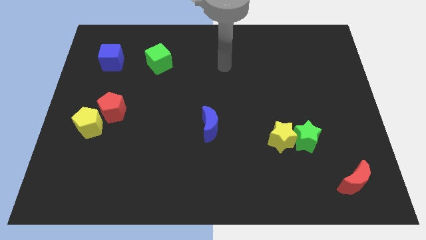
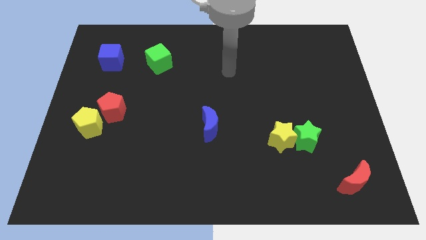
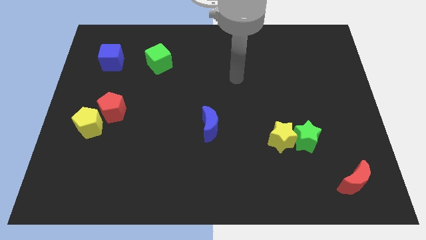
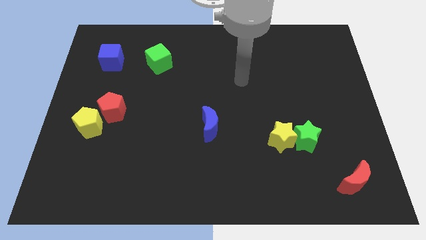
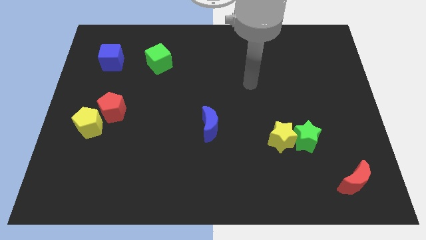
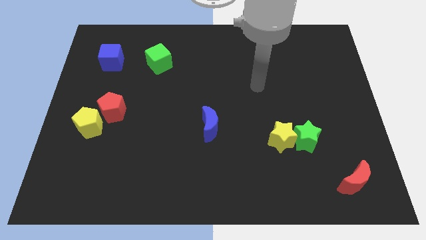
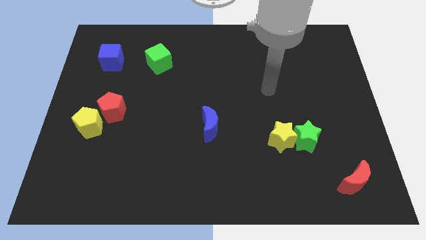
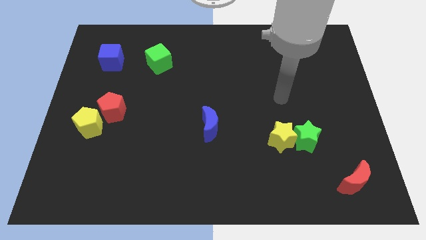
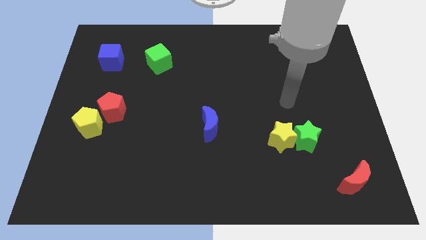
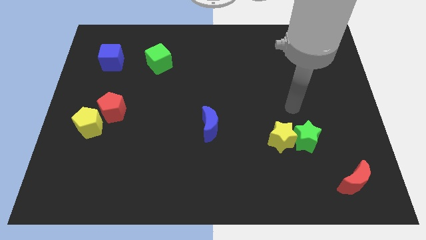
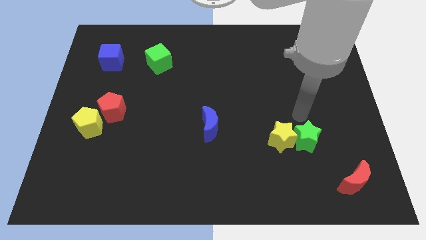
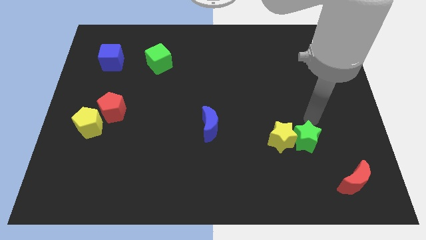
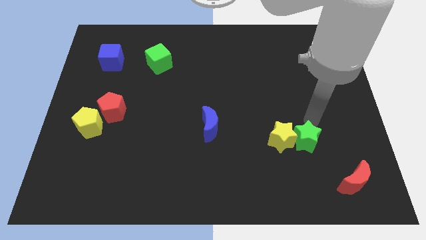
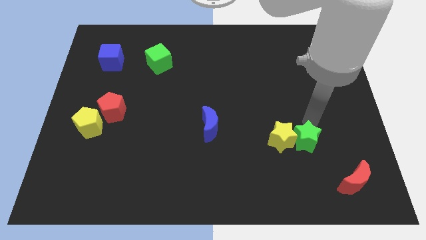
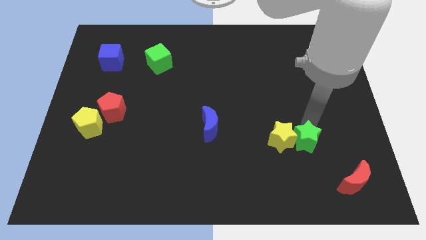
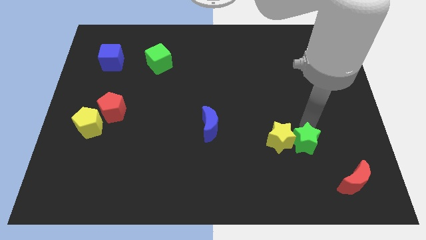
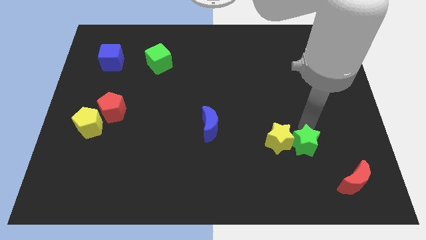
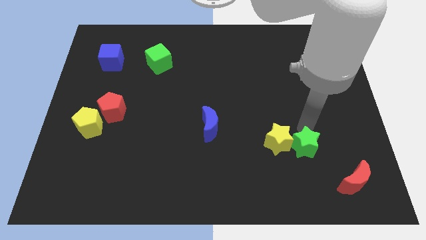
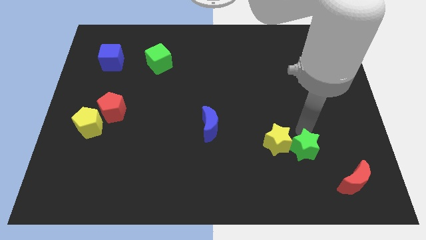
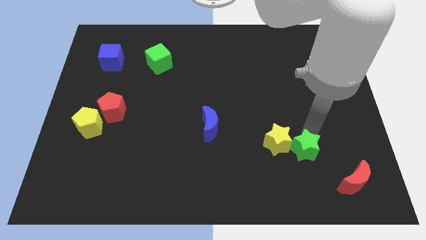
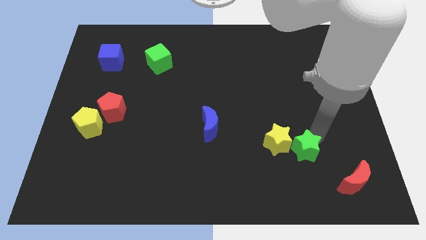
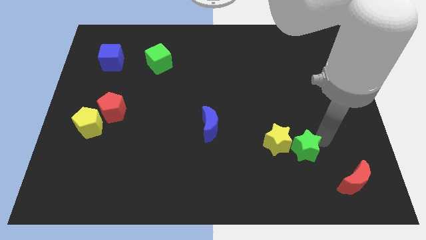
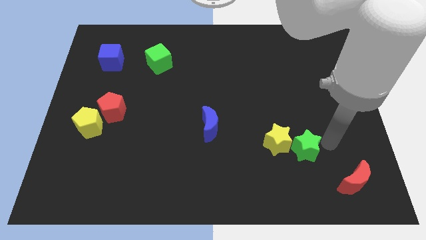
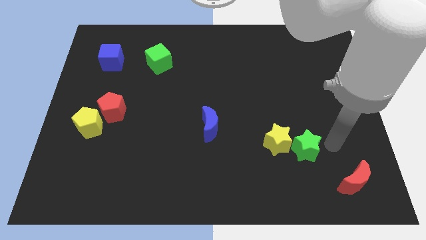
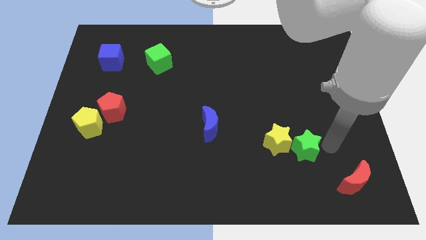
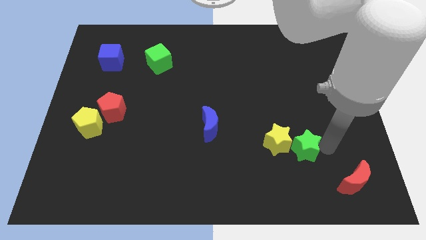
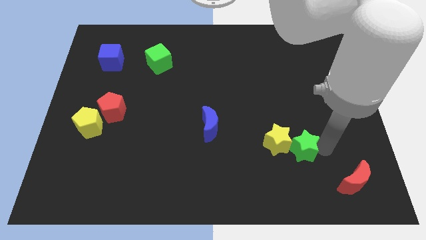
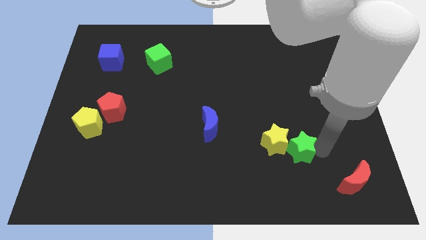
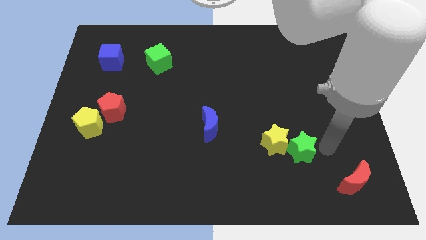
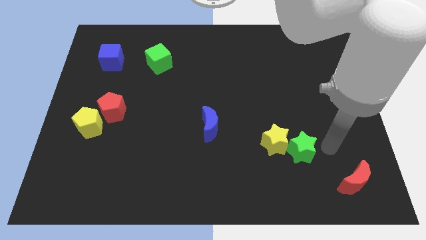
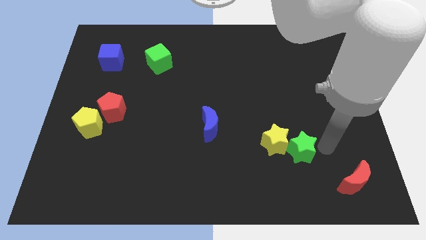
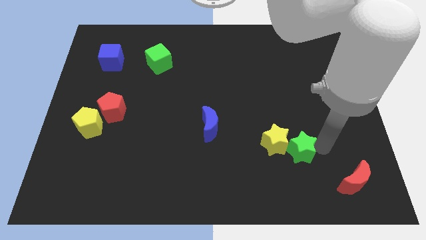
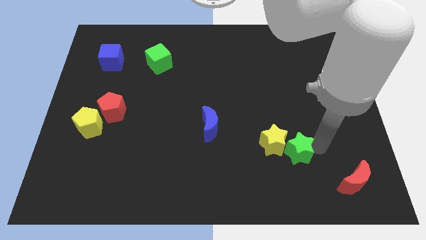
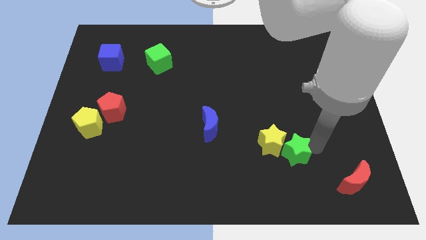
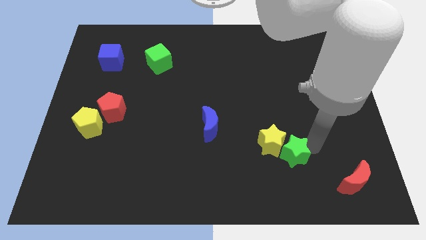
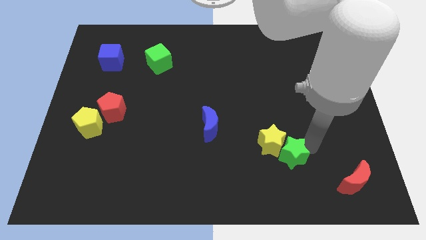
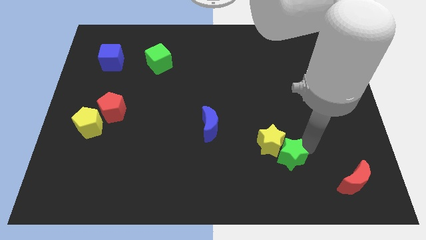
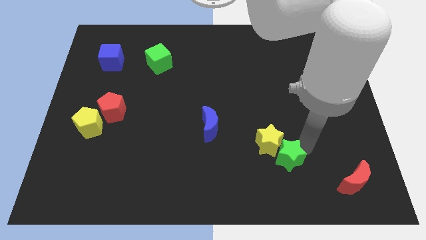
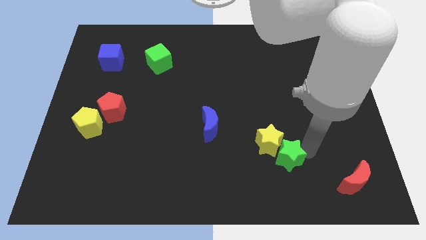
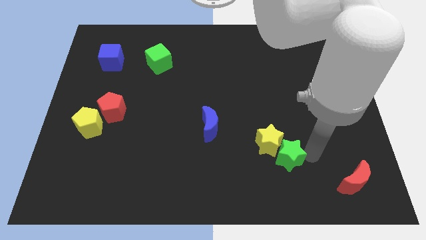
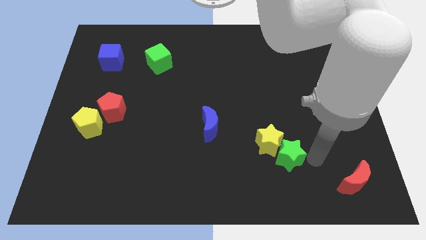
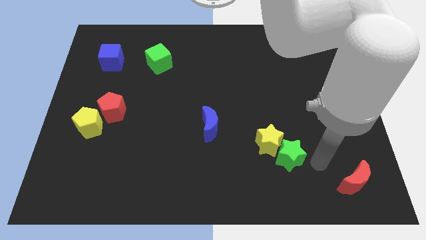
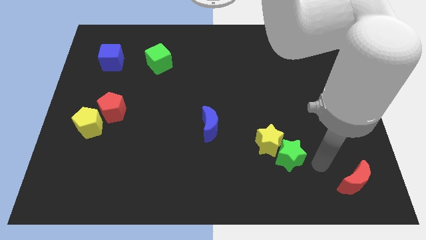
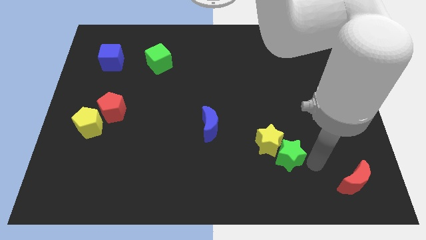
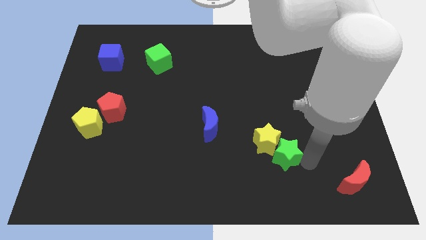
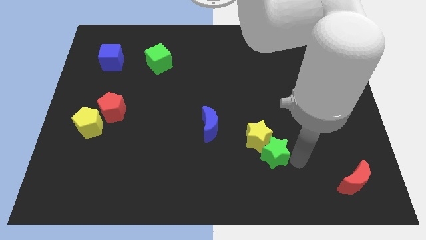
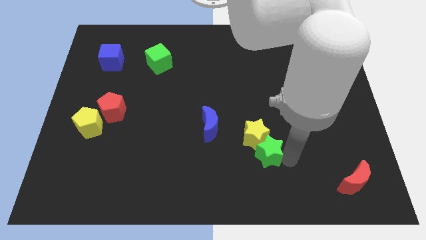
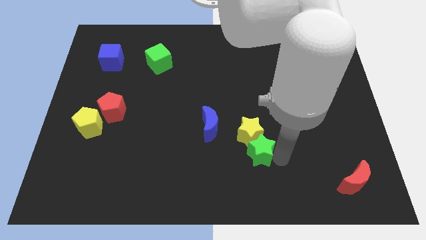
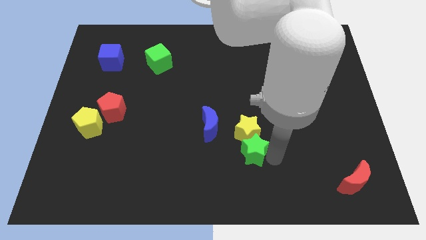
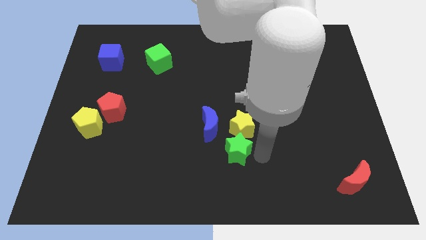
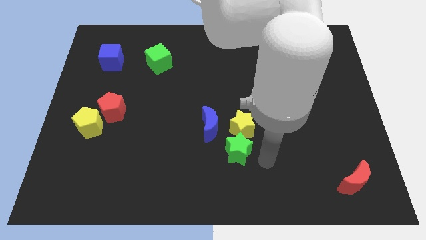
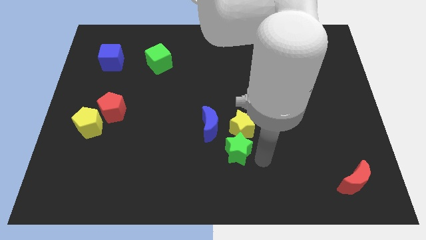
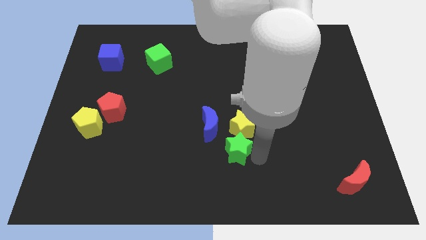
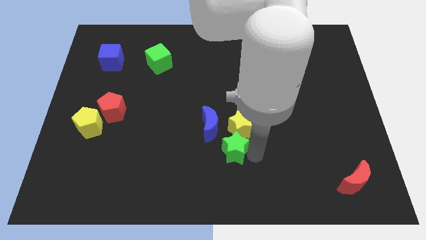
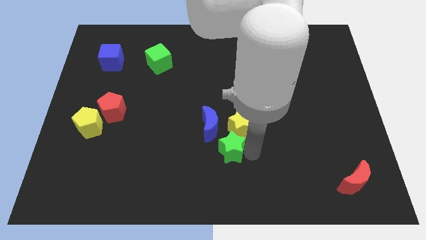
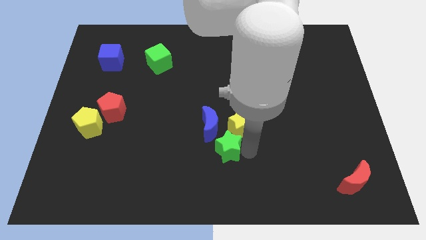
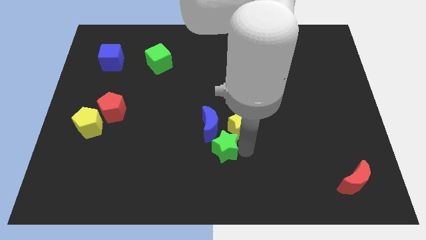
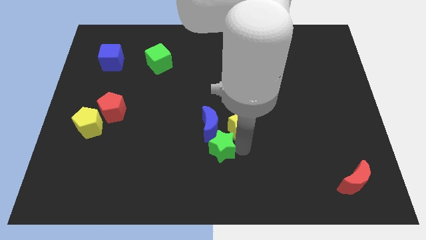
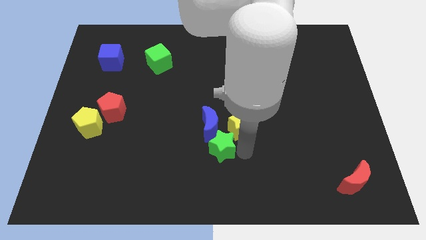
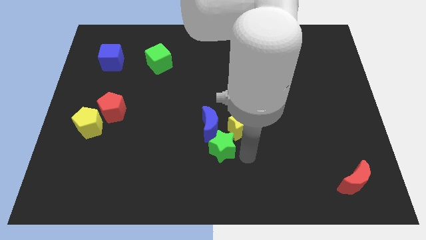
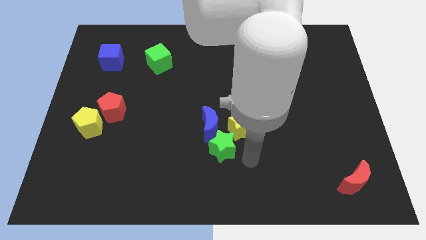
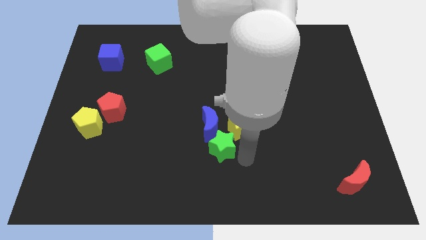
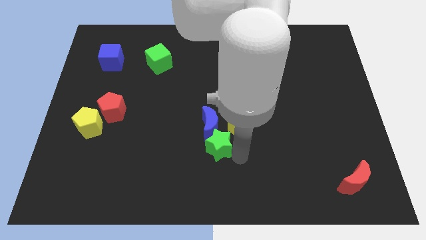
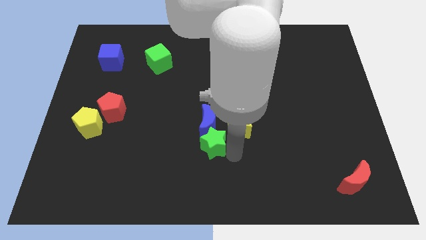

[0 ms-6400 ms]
move the green star left

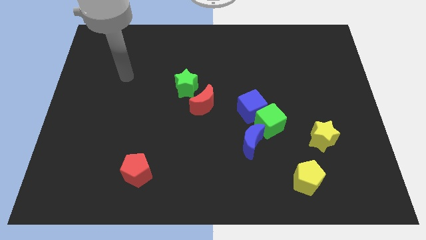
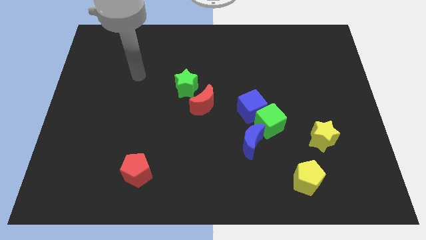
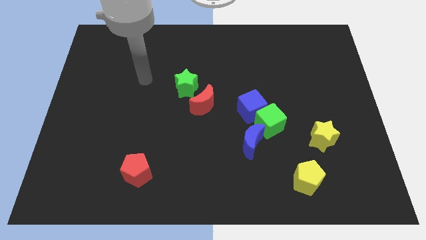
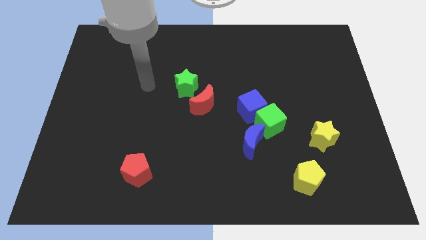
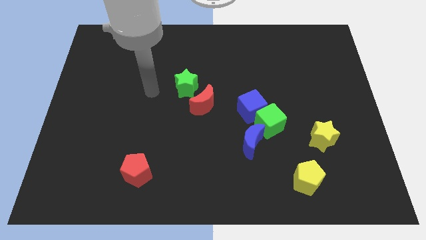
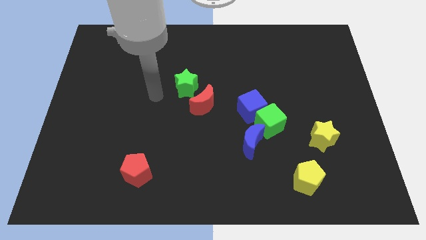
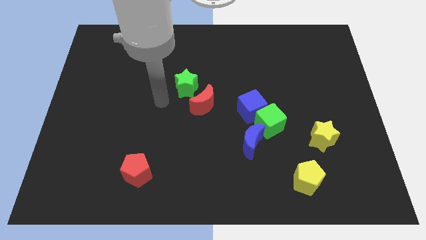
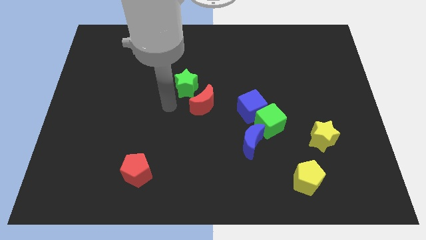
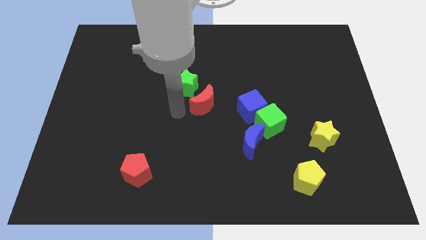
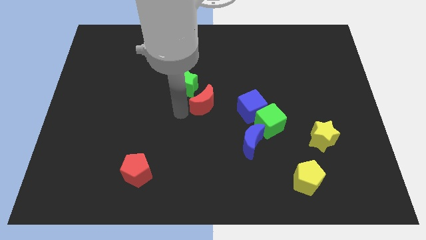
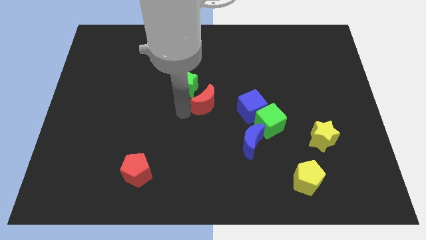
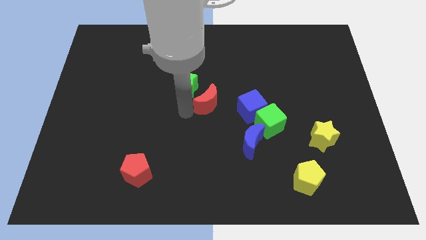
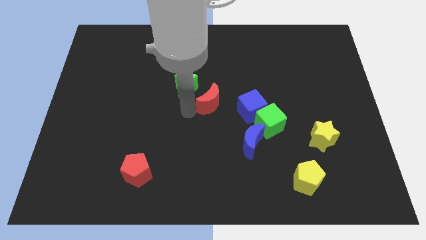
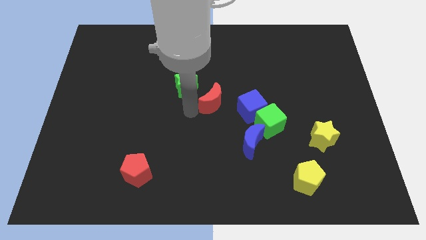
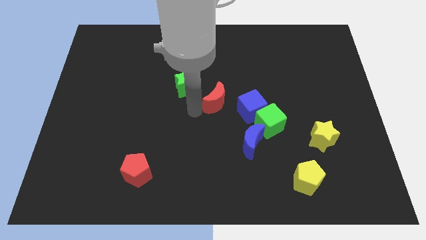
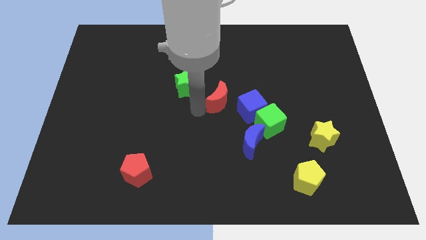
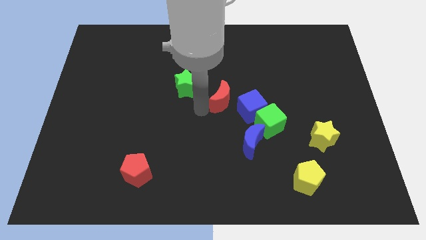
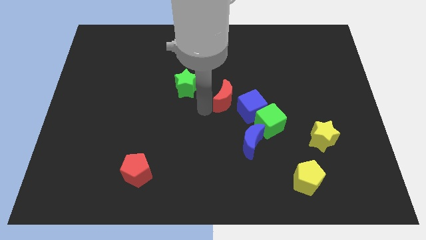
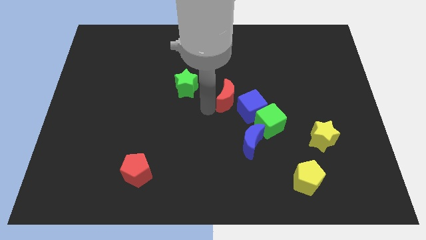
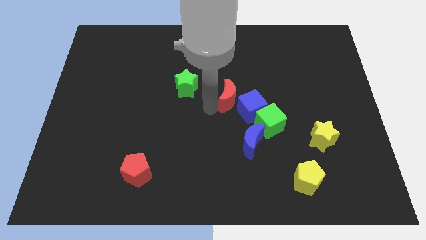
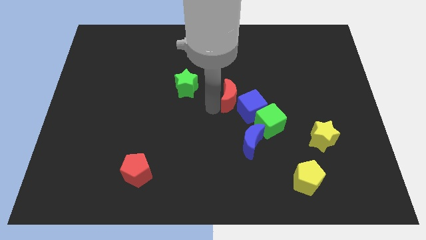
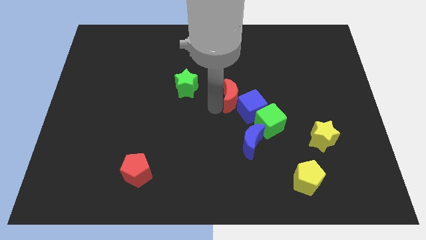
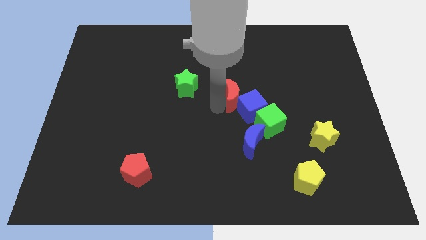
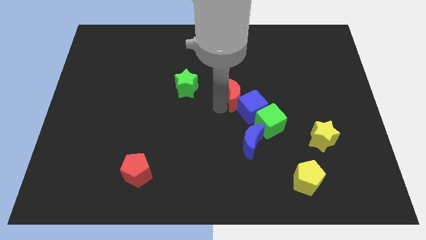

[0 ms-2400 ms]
slide the red moon slightly right
